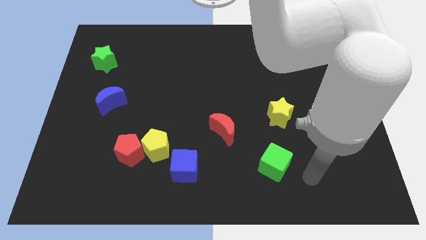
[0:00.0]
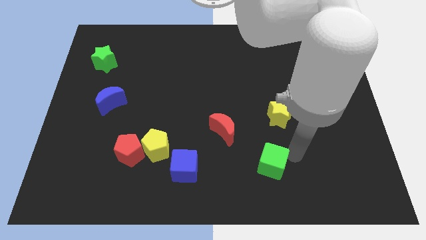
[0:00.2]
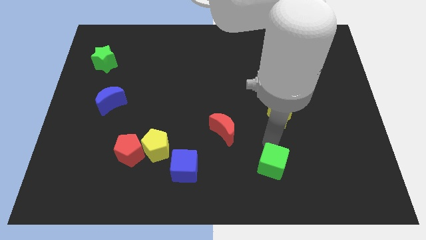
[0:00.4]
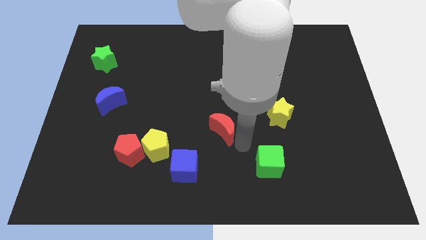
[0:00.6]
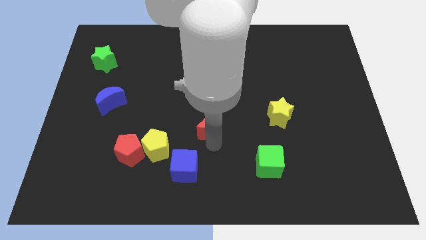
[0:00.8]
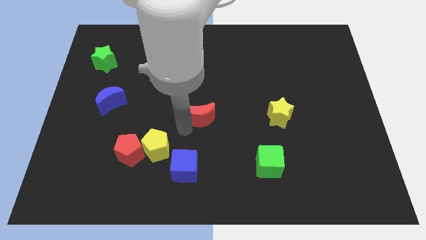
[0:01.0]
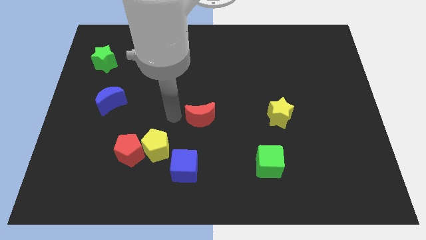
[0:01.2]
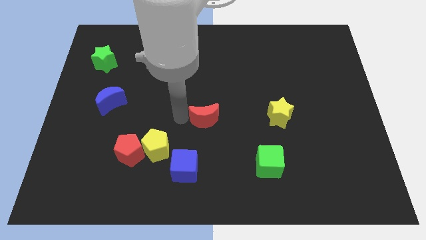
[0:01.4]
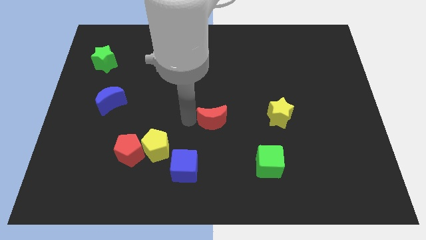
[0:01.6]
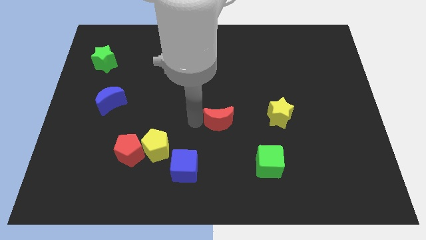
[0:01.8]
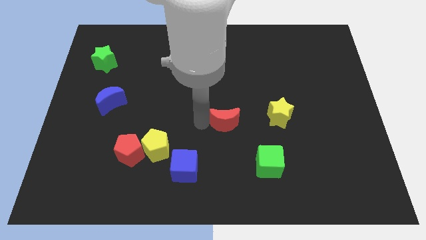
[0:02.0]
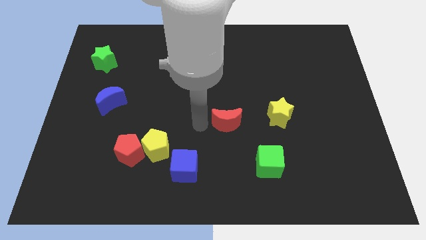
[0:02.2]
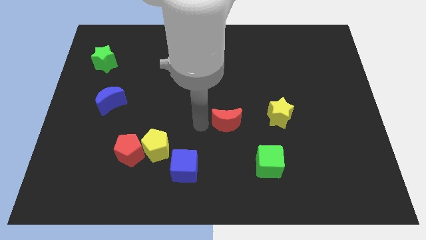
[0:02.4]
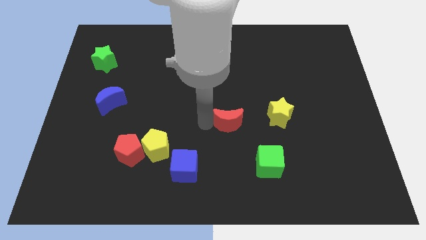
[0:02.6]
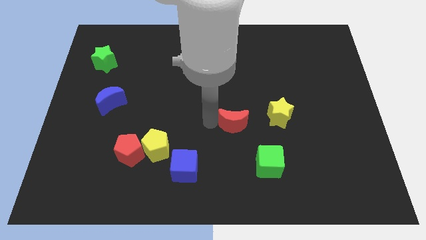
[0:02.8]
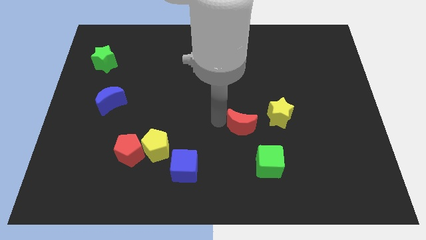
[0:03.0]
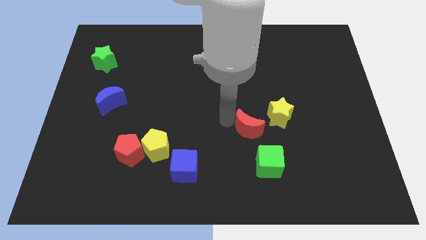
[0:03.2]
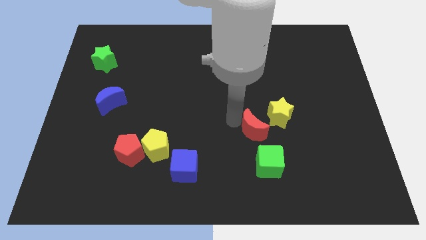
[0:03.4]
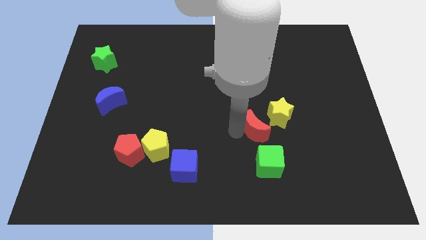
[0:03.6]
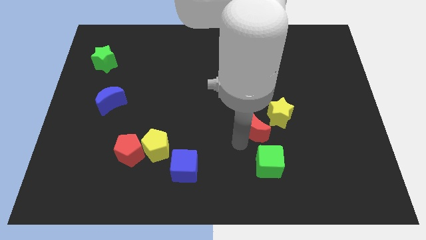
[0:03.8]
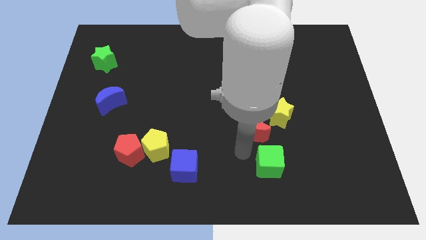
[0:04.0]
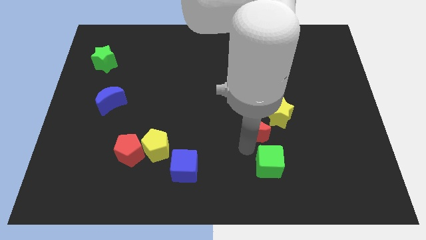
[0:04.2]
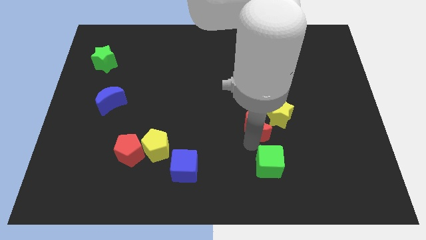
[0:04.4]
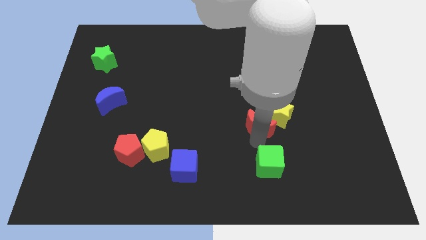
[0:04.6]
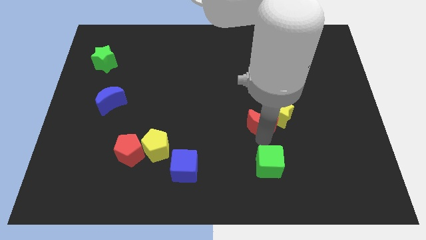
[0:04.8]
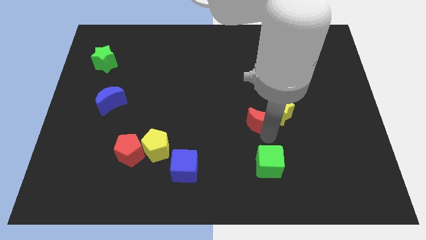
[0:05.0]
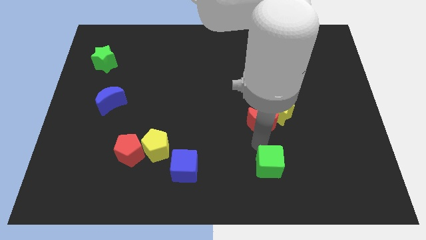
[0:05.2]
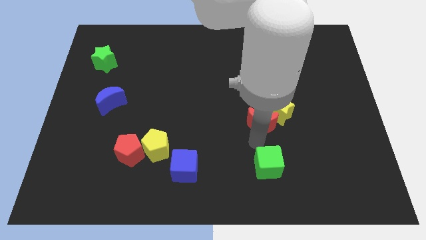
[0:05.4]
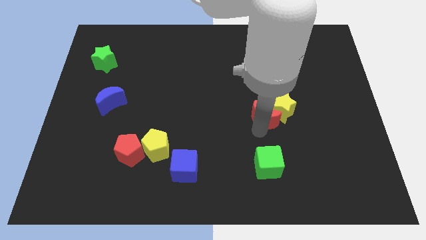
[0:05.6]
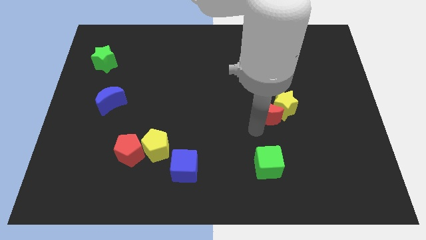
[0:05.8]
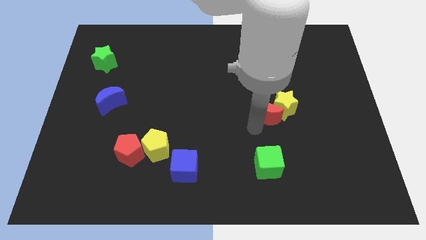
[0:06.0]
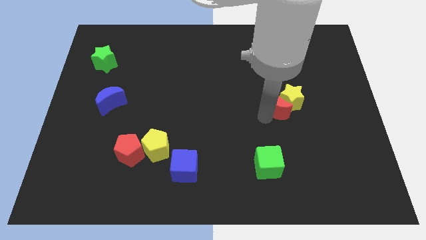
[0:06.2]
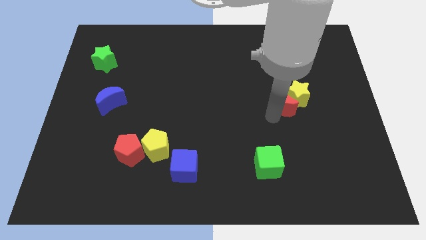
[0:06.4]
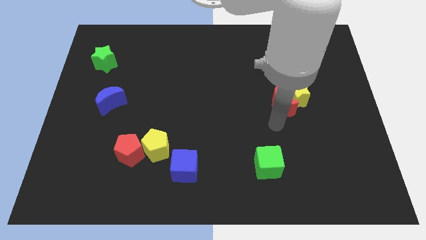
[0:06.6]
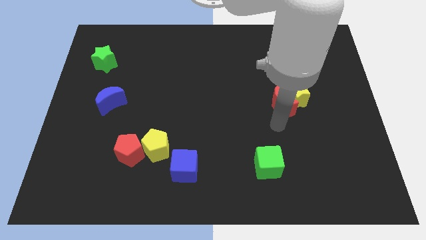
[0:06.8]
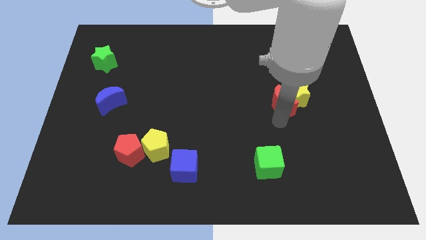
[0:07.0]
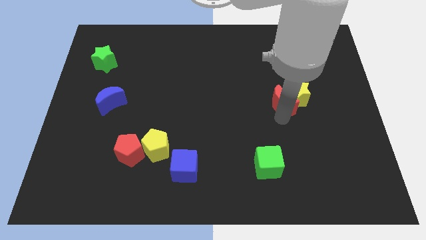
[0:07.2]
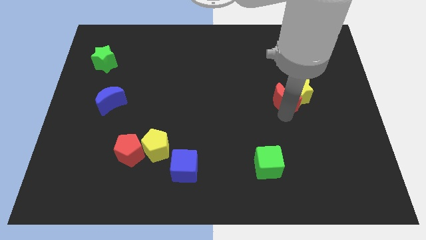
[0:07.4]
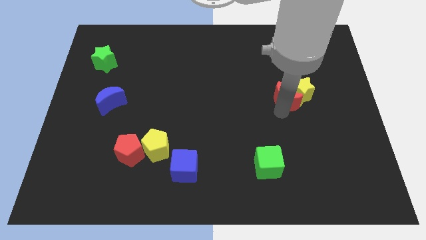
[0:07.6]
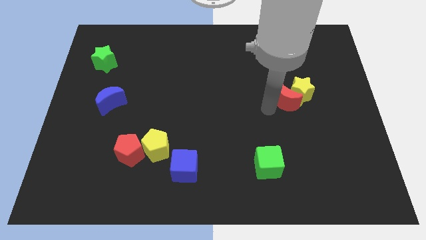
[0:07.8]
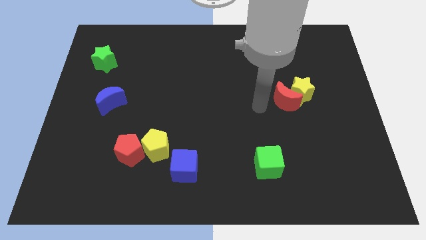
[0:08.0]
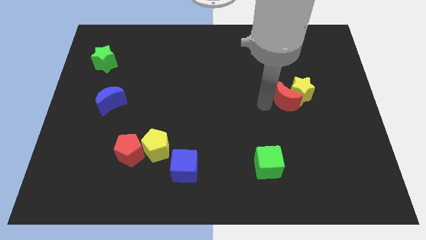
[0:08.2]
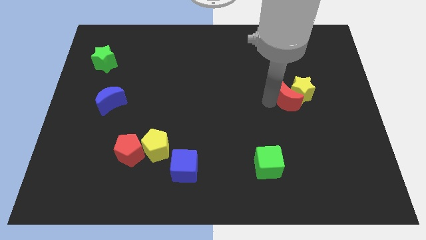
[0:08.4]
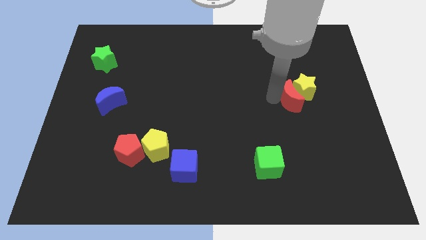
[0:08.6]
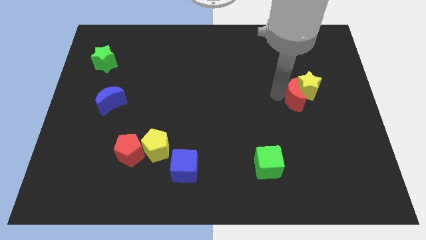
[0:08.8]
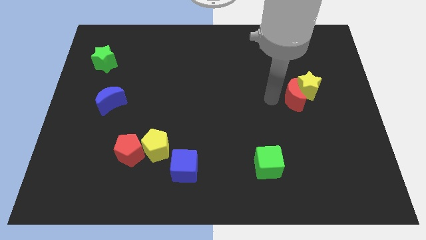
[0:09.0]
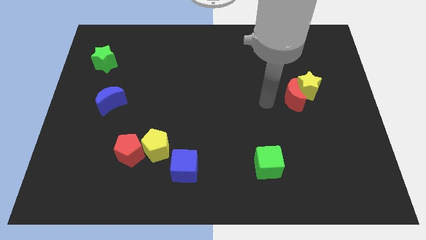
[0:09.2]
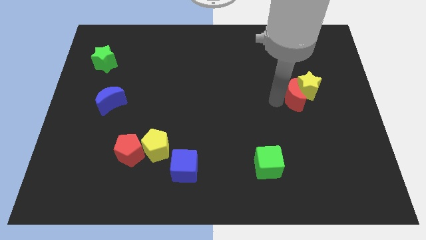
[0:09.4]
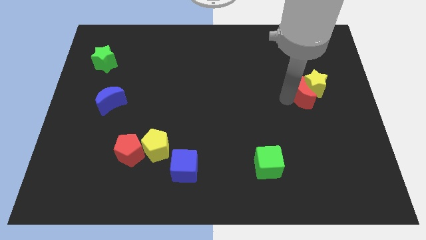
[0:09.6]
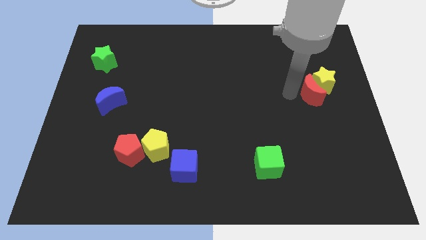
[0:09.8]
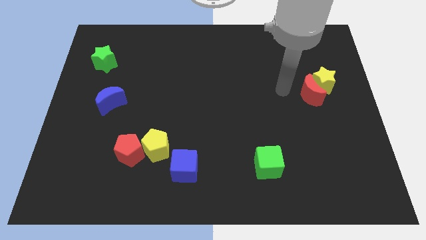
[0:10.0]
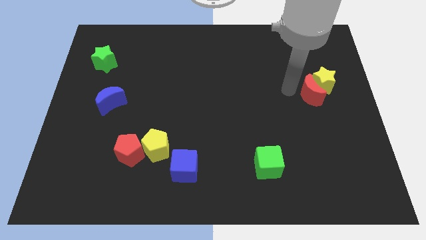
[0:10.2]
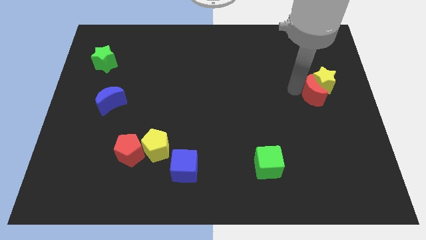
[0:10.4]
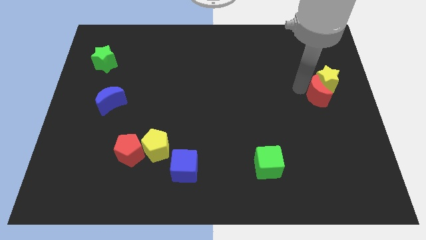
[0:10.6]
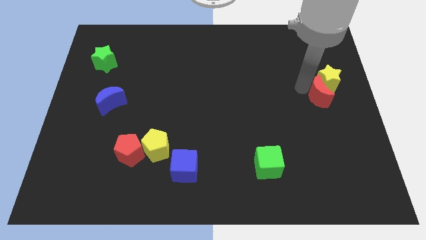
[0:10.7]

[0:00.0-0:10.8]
slide the red moon to the right side

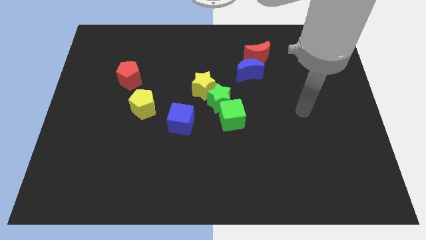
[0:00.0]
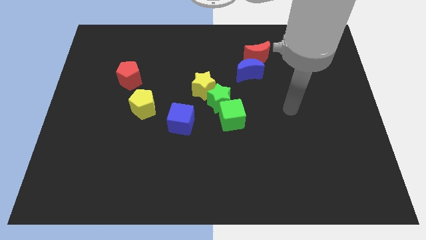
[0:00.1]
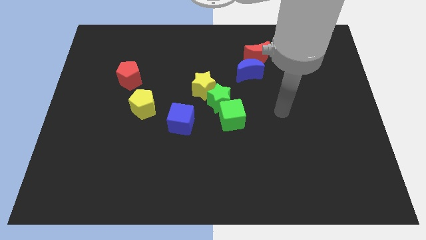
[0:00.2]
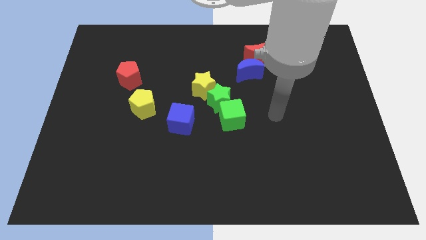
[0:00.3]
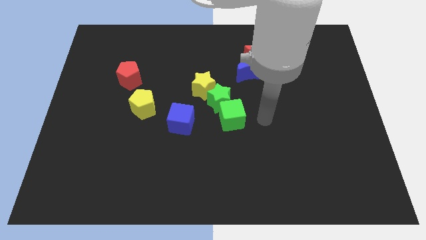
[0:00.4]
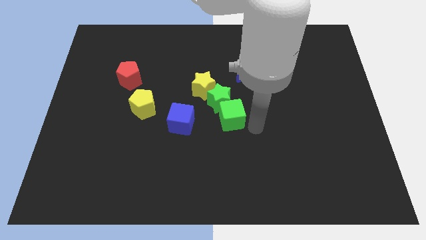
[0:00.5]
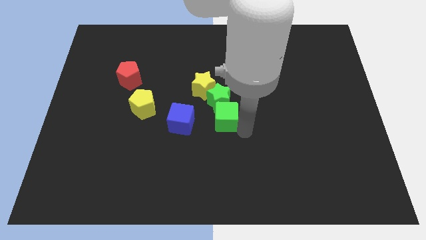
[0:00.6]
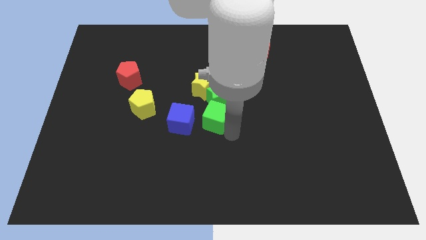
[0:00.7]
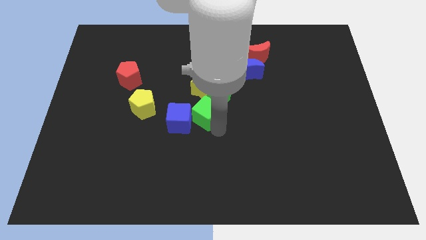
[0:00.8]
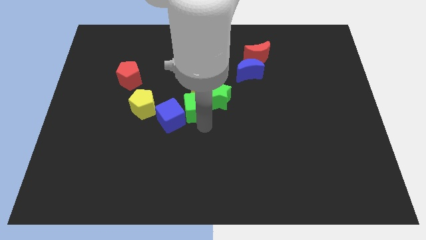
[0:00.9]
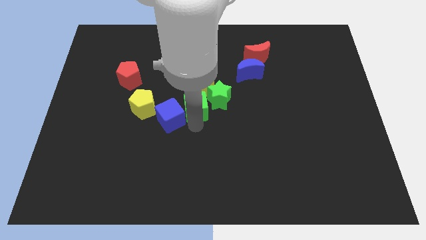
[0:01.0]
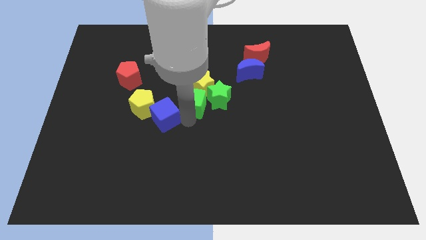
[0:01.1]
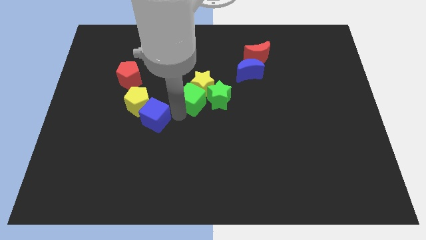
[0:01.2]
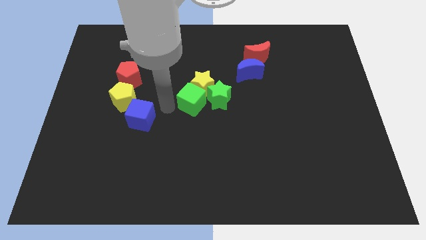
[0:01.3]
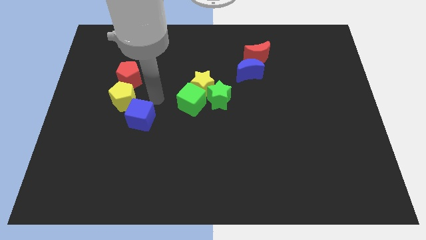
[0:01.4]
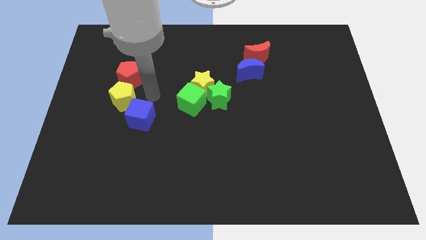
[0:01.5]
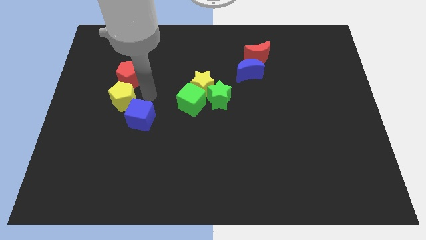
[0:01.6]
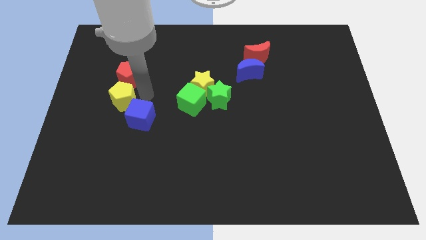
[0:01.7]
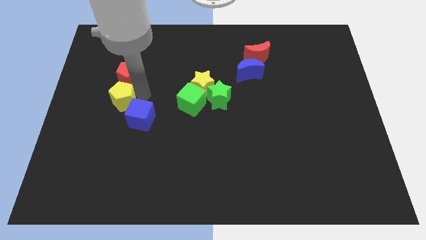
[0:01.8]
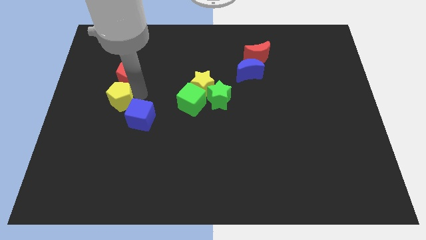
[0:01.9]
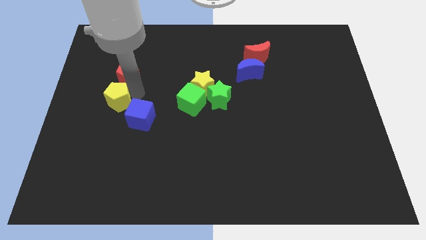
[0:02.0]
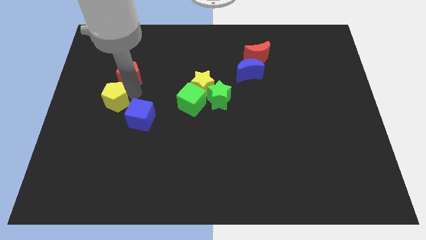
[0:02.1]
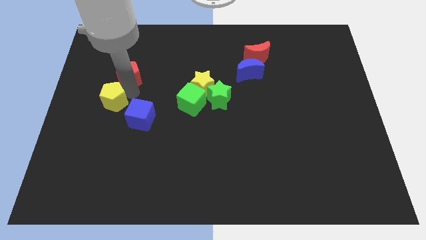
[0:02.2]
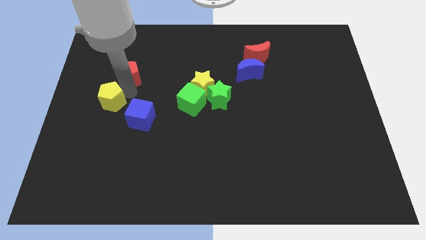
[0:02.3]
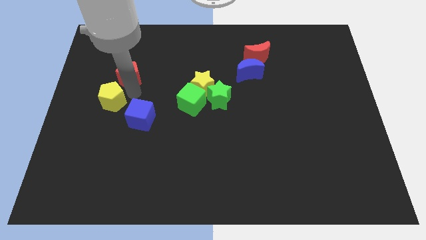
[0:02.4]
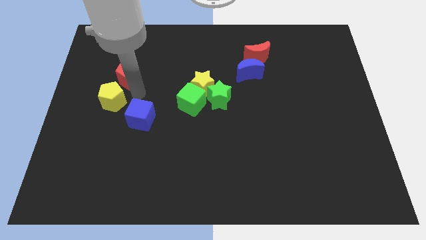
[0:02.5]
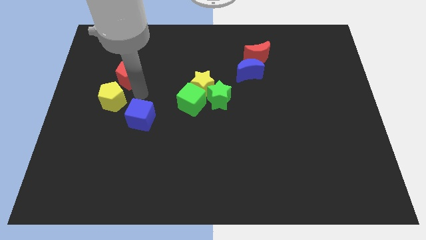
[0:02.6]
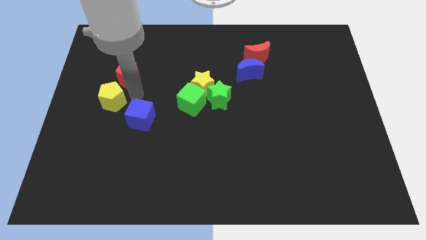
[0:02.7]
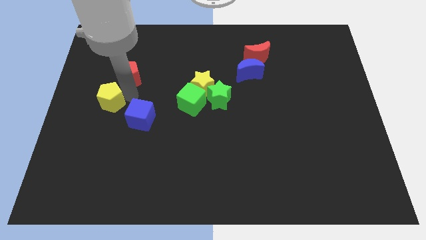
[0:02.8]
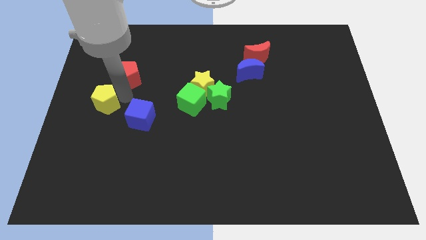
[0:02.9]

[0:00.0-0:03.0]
move the yellow pentagon to the left side of the board
